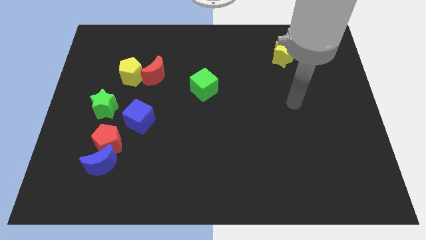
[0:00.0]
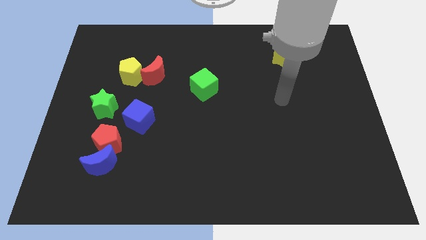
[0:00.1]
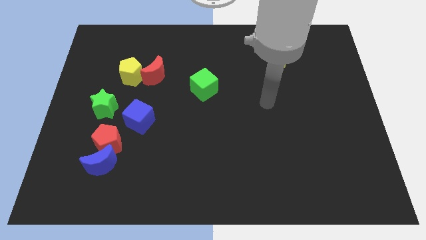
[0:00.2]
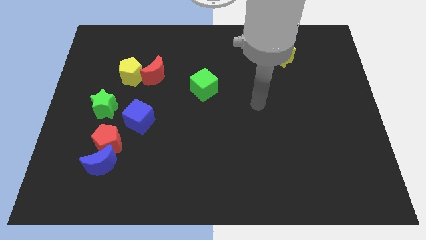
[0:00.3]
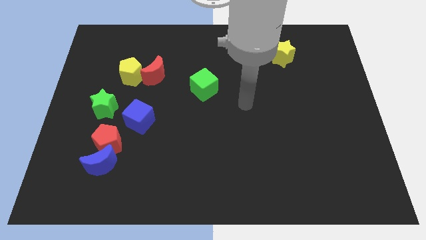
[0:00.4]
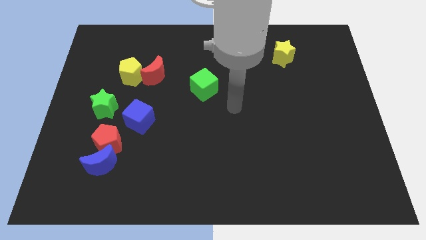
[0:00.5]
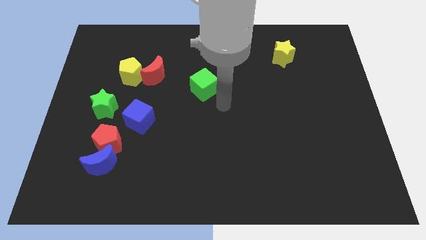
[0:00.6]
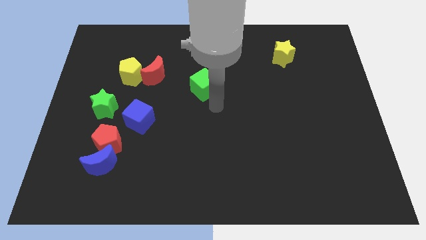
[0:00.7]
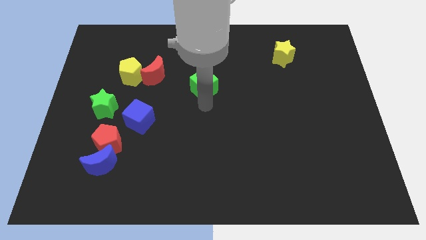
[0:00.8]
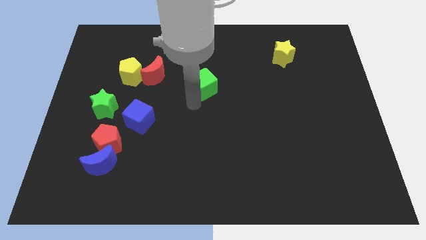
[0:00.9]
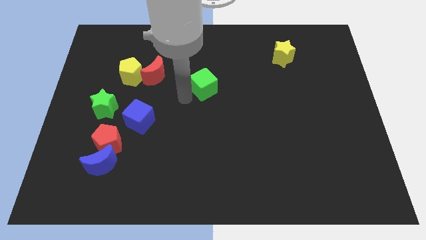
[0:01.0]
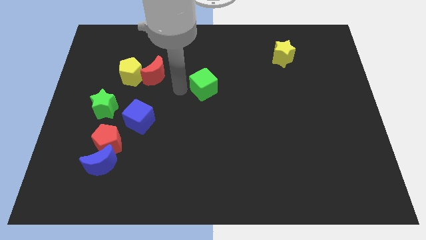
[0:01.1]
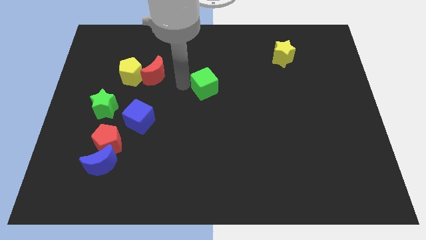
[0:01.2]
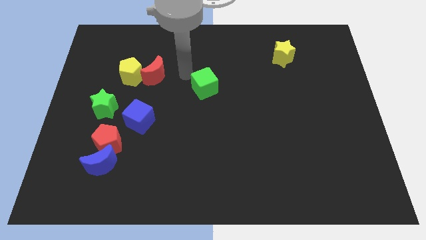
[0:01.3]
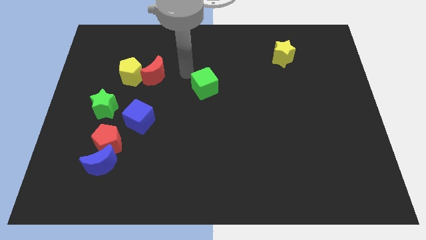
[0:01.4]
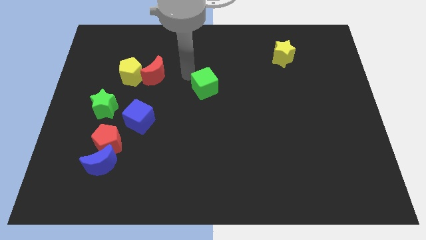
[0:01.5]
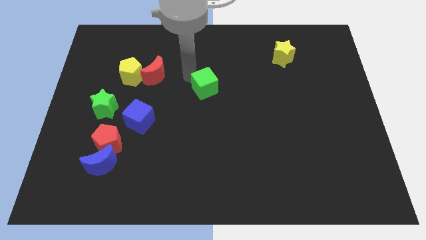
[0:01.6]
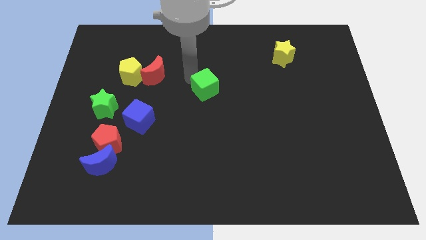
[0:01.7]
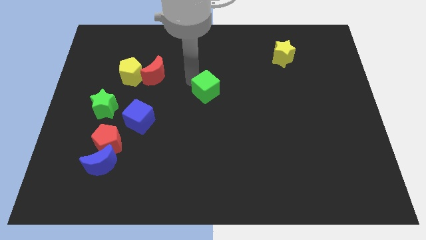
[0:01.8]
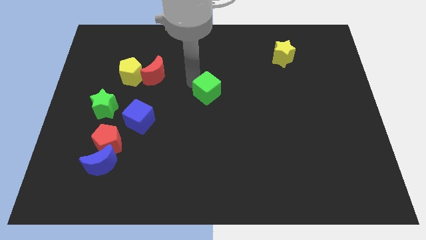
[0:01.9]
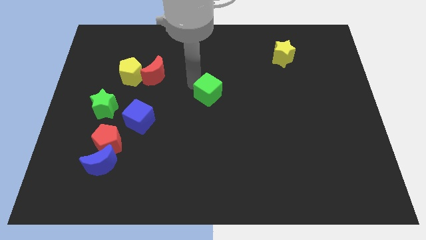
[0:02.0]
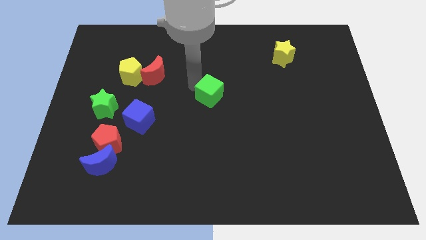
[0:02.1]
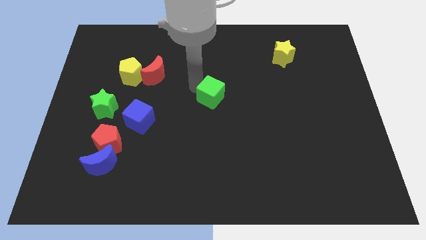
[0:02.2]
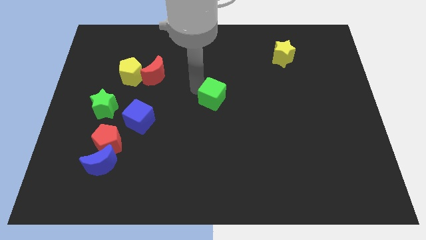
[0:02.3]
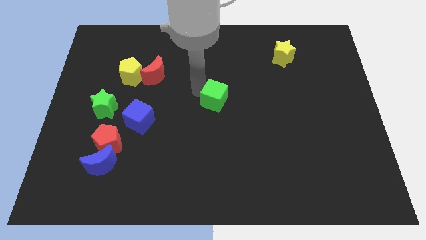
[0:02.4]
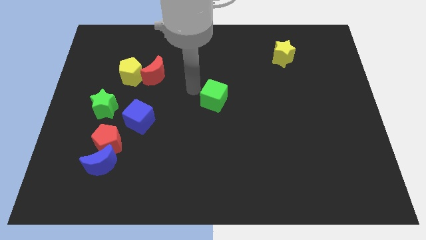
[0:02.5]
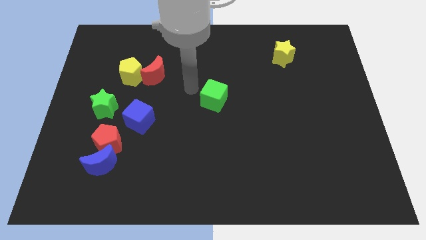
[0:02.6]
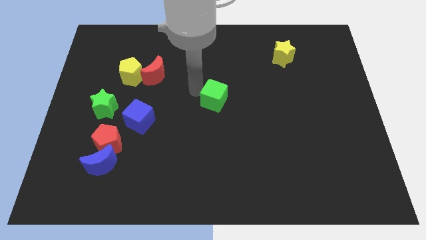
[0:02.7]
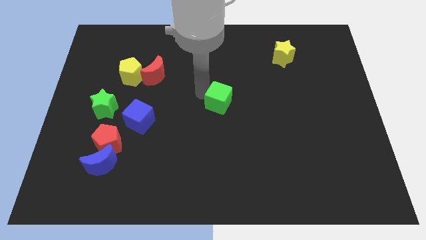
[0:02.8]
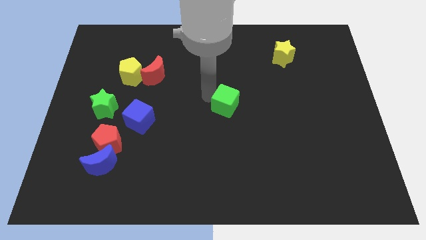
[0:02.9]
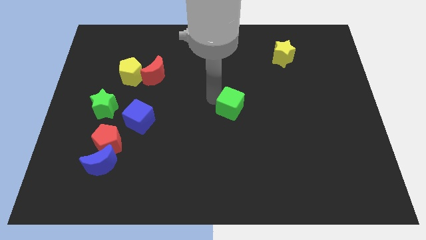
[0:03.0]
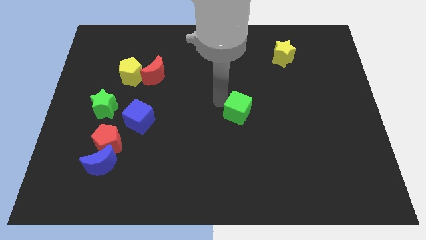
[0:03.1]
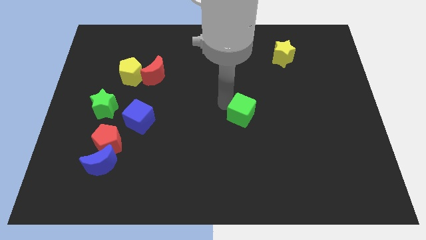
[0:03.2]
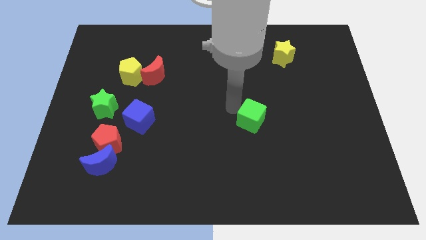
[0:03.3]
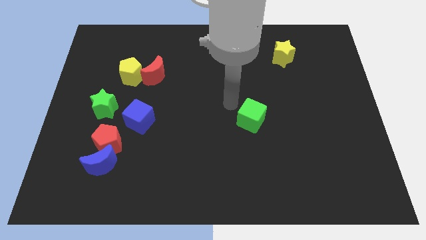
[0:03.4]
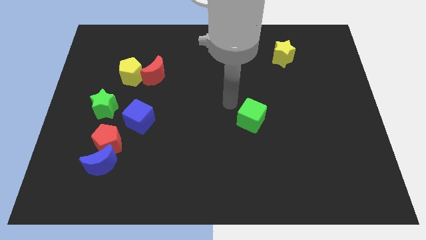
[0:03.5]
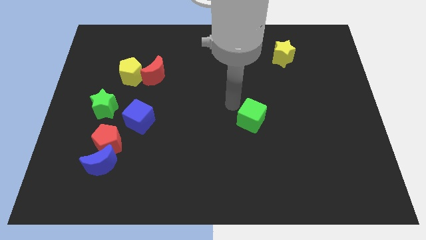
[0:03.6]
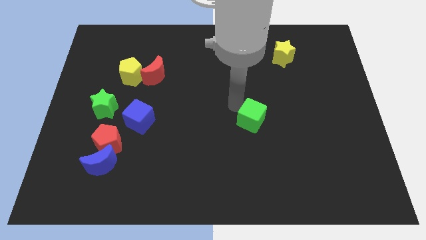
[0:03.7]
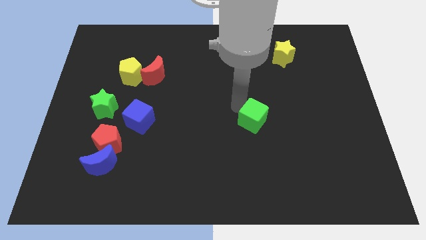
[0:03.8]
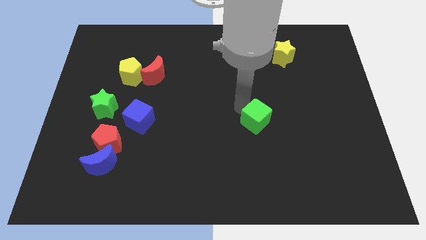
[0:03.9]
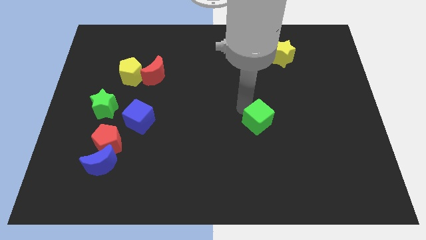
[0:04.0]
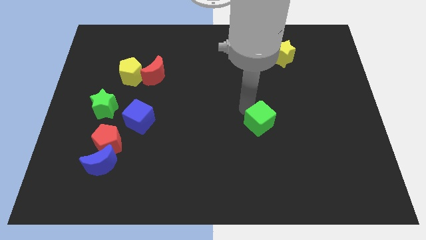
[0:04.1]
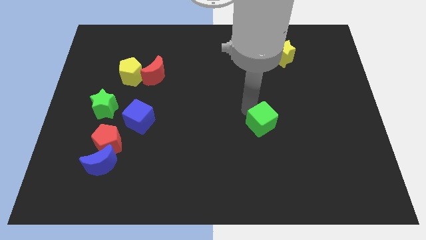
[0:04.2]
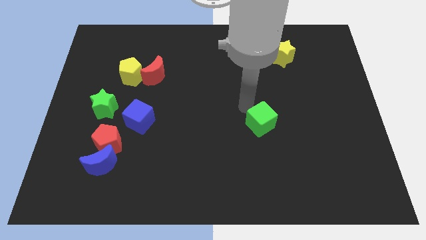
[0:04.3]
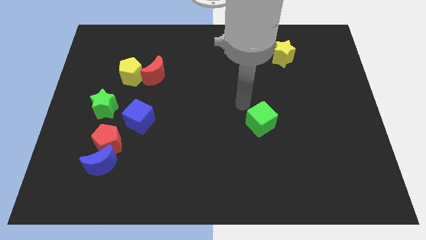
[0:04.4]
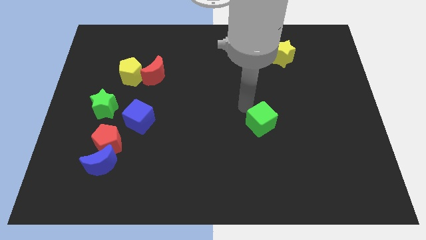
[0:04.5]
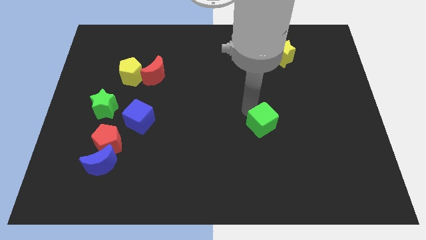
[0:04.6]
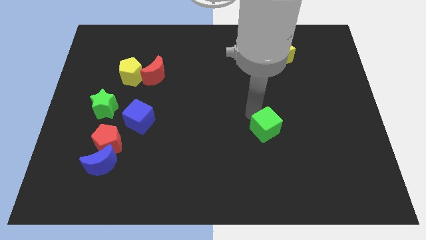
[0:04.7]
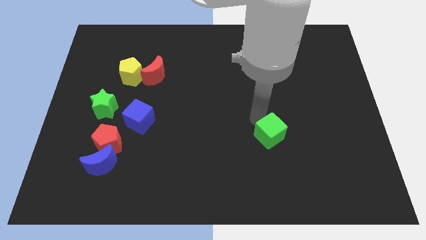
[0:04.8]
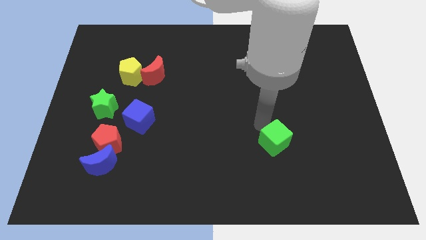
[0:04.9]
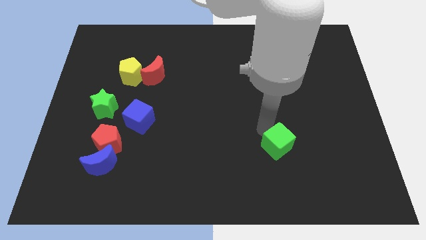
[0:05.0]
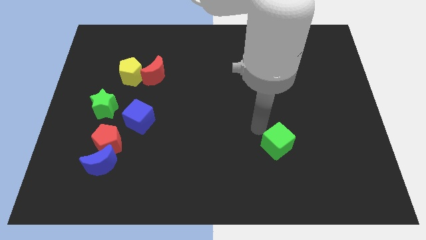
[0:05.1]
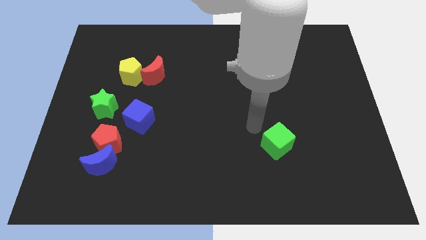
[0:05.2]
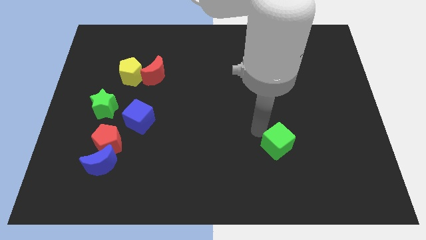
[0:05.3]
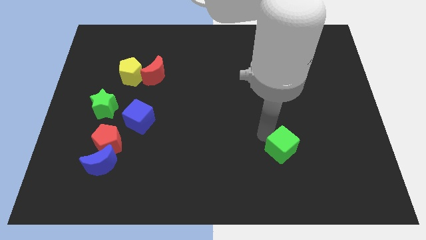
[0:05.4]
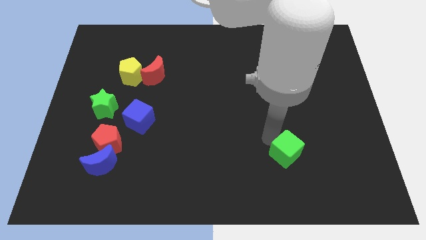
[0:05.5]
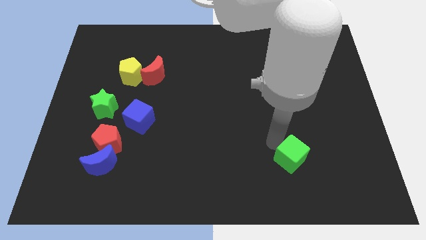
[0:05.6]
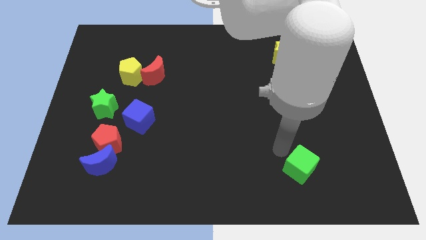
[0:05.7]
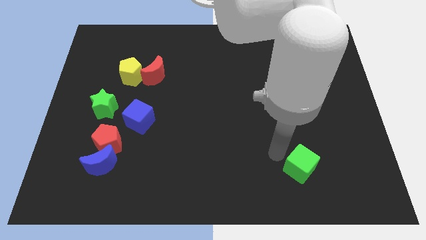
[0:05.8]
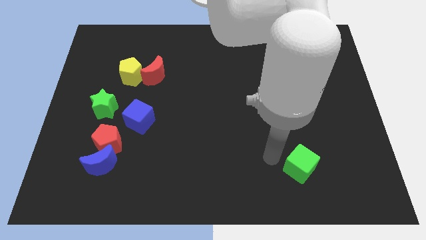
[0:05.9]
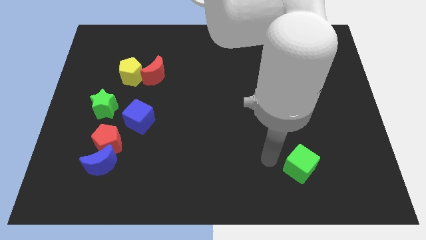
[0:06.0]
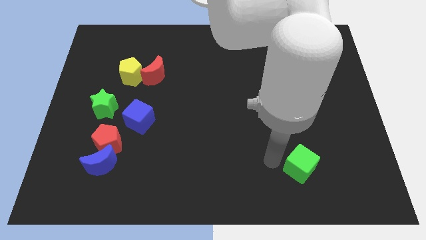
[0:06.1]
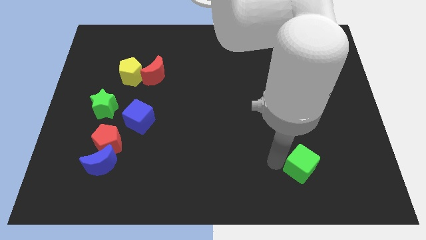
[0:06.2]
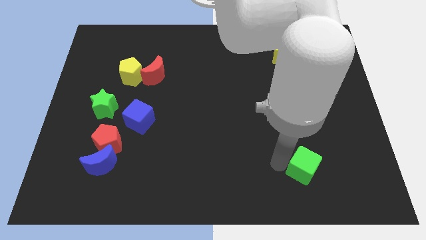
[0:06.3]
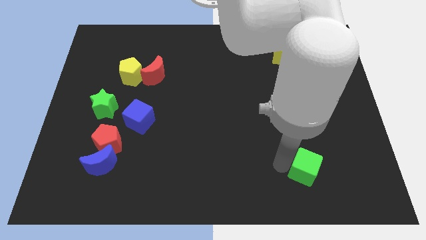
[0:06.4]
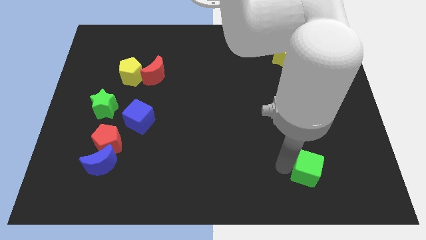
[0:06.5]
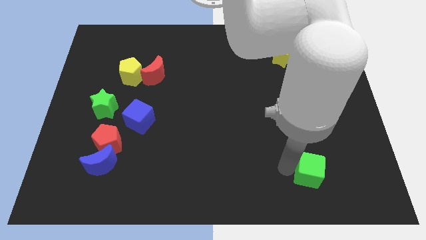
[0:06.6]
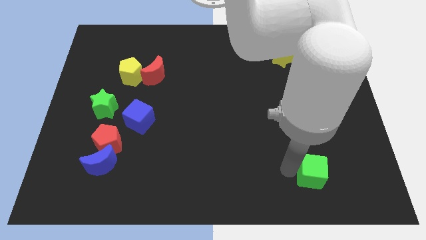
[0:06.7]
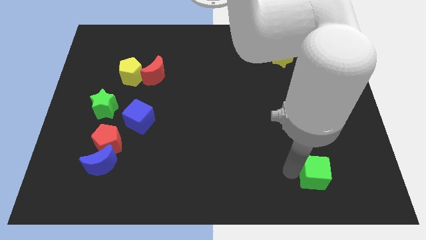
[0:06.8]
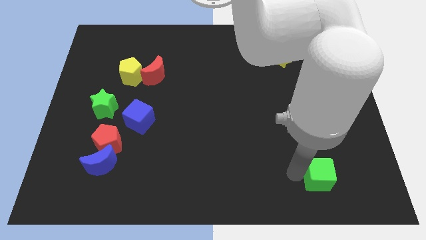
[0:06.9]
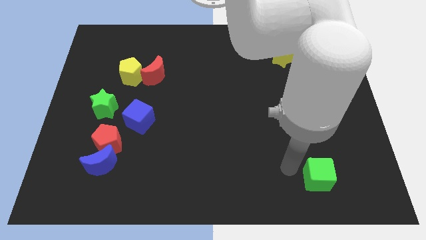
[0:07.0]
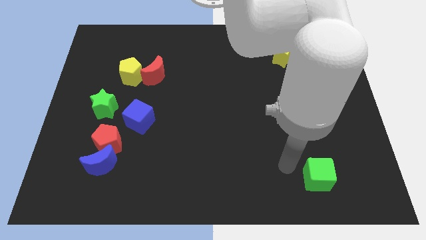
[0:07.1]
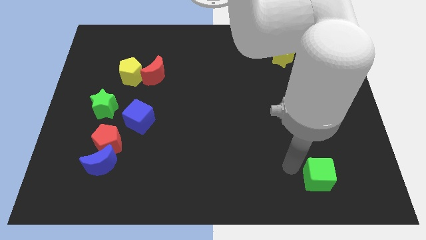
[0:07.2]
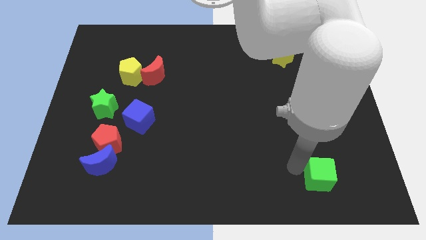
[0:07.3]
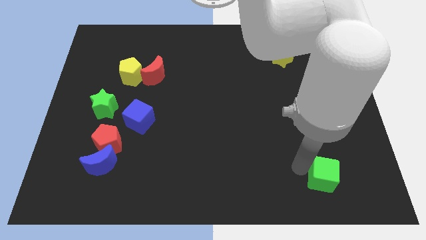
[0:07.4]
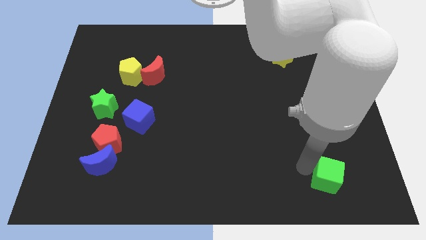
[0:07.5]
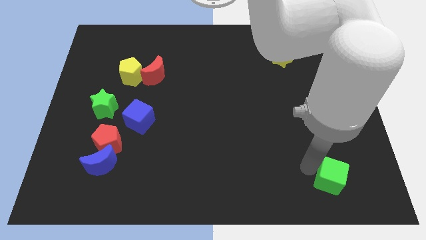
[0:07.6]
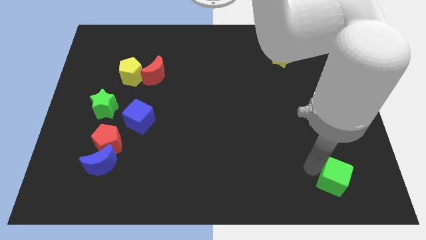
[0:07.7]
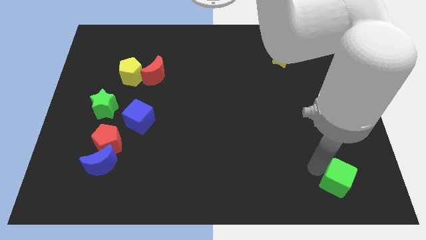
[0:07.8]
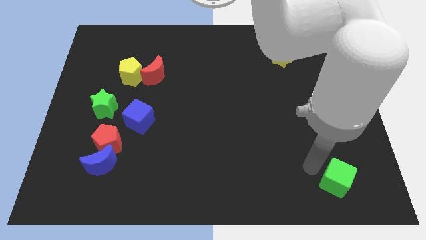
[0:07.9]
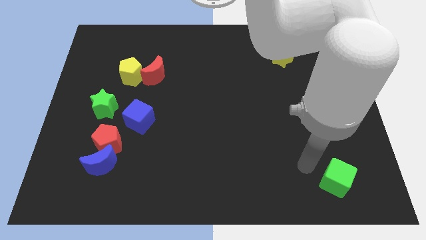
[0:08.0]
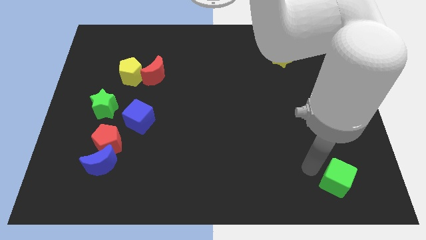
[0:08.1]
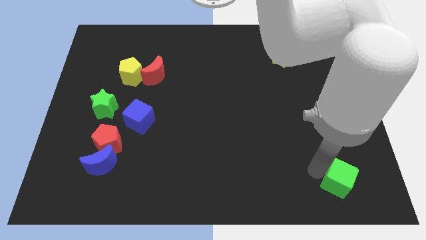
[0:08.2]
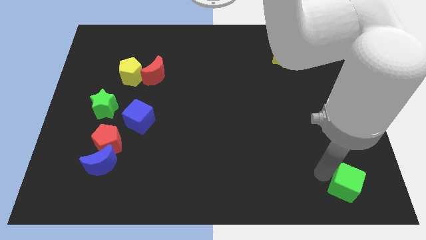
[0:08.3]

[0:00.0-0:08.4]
slide the green cube to the lower right corner
